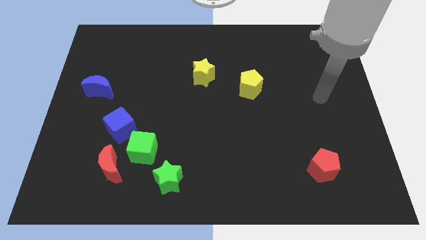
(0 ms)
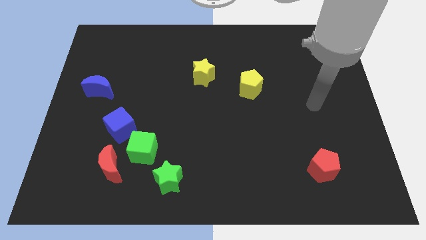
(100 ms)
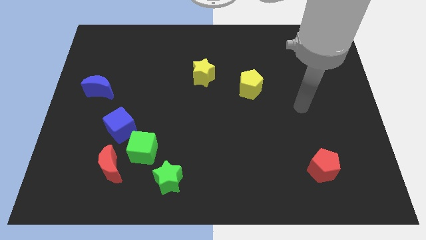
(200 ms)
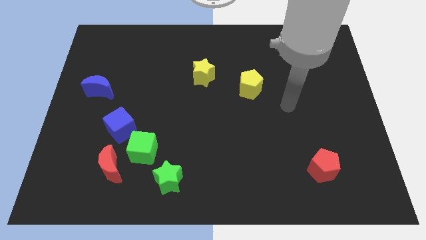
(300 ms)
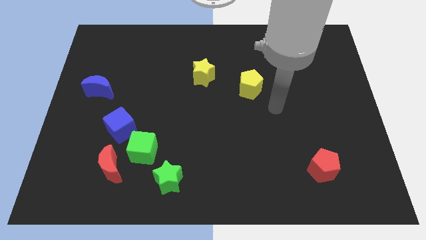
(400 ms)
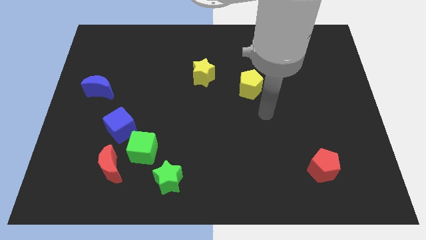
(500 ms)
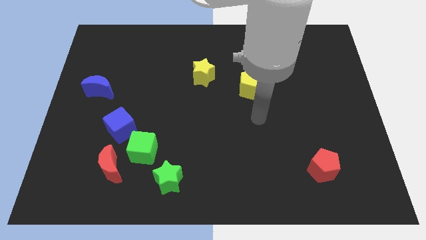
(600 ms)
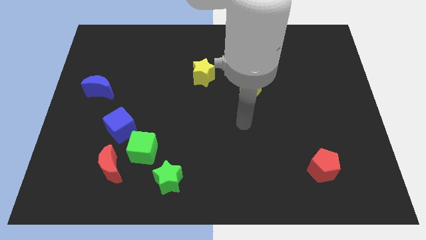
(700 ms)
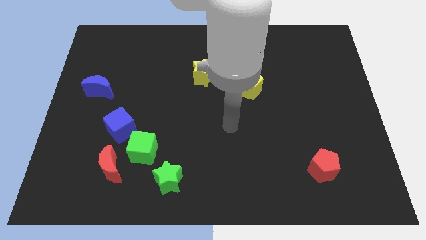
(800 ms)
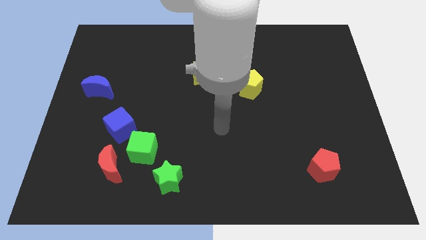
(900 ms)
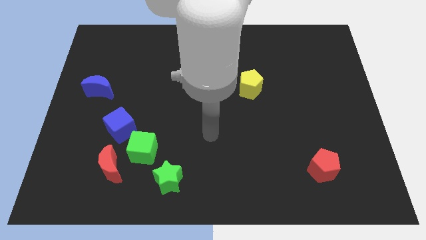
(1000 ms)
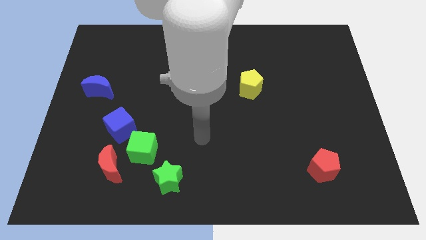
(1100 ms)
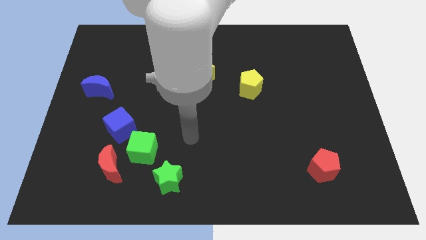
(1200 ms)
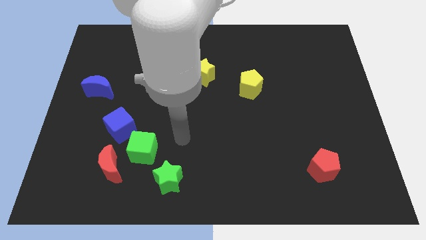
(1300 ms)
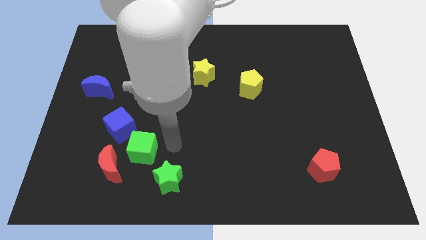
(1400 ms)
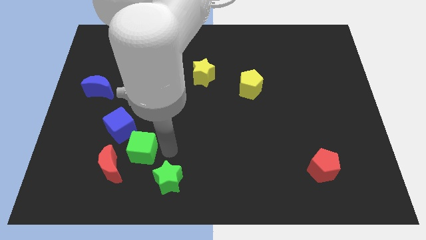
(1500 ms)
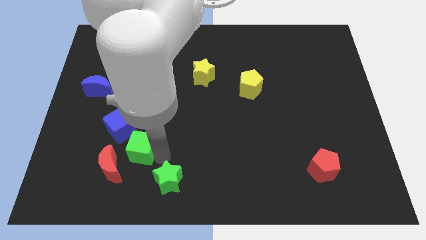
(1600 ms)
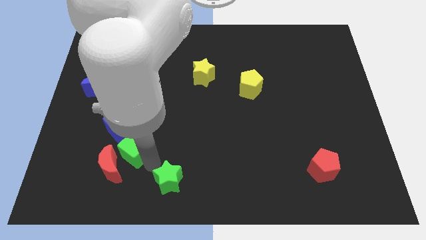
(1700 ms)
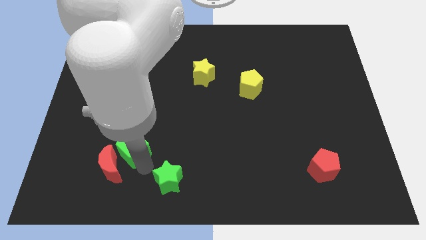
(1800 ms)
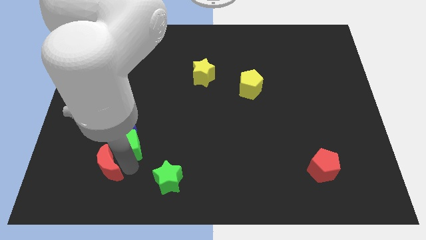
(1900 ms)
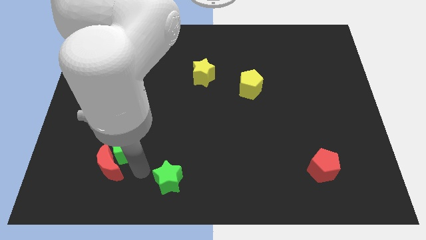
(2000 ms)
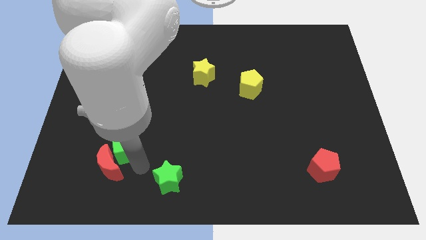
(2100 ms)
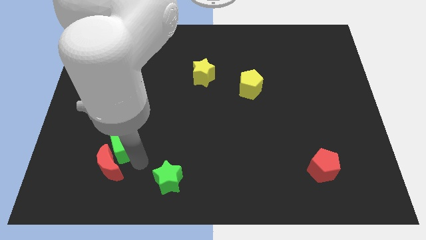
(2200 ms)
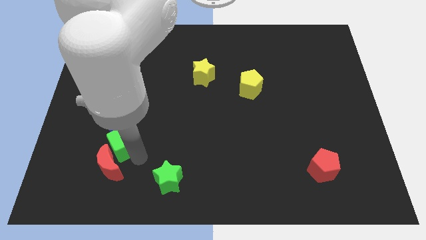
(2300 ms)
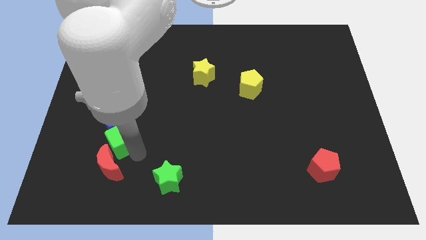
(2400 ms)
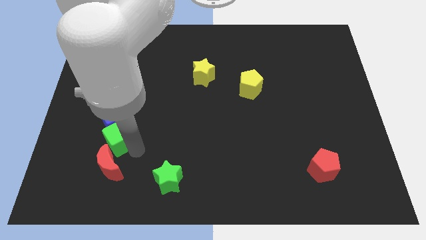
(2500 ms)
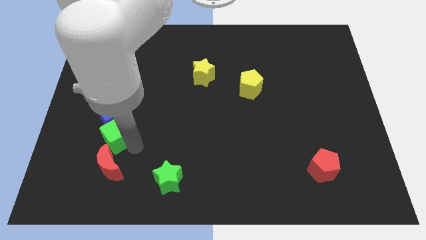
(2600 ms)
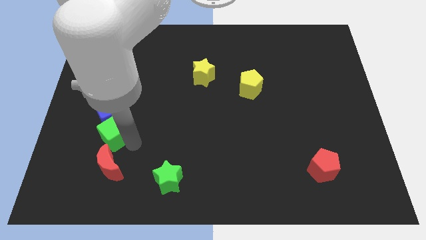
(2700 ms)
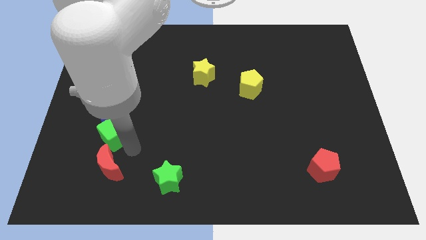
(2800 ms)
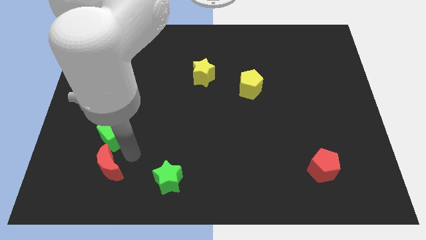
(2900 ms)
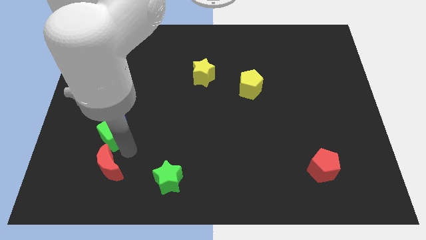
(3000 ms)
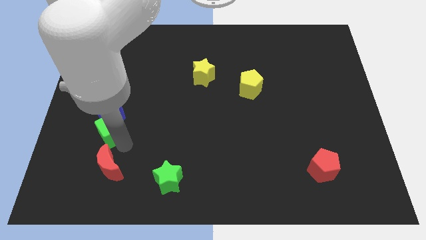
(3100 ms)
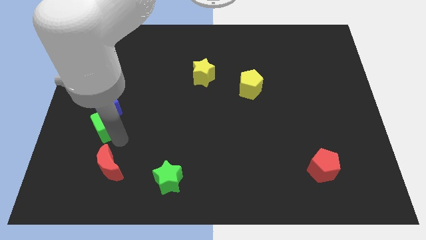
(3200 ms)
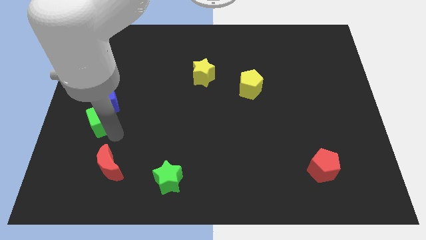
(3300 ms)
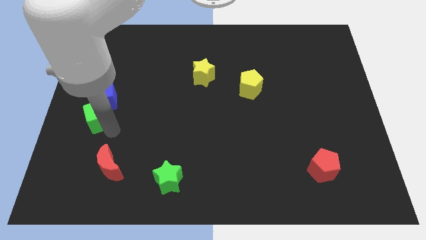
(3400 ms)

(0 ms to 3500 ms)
pull the green cube apart from the clump

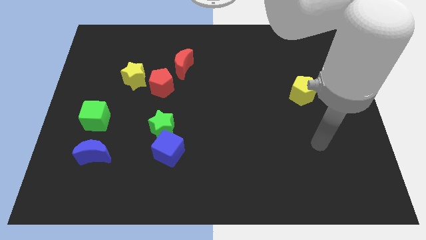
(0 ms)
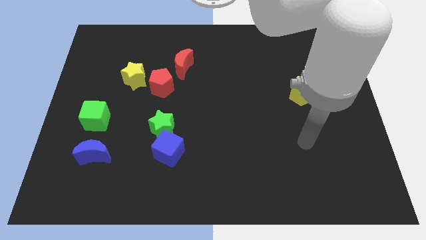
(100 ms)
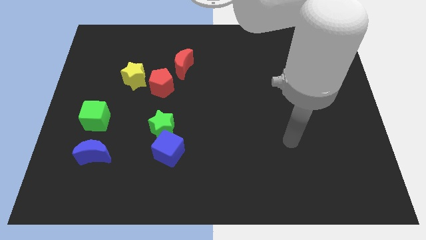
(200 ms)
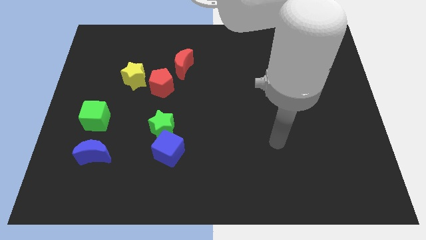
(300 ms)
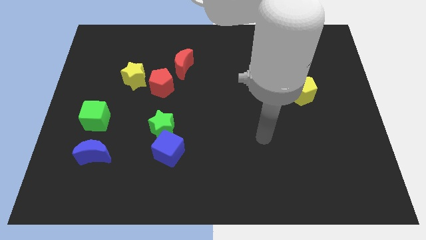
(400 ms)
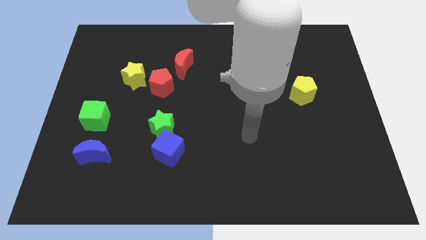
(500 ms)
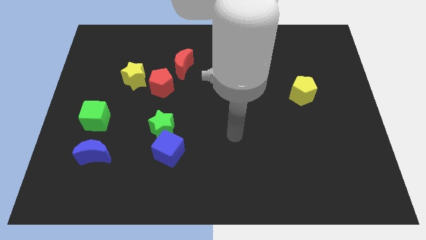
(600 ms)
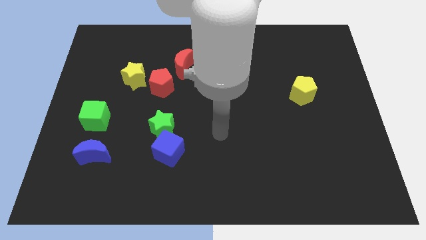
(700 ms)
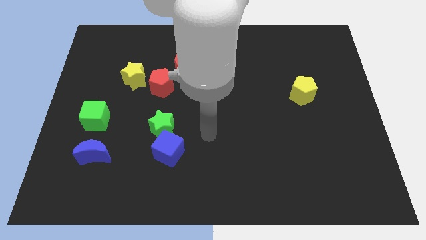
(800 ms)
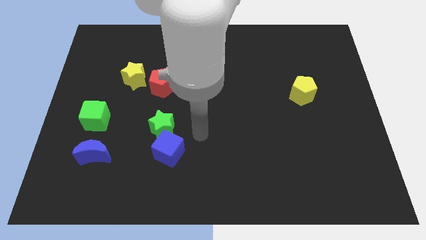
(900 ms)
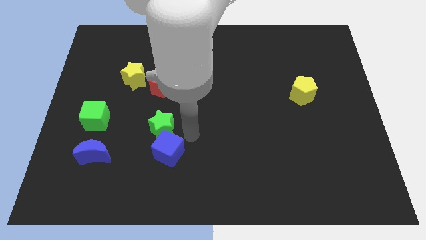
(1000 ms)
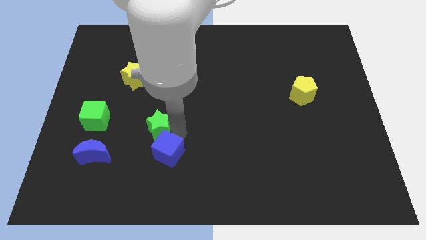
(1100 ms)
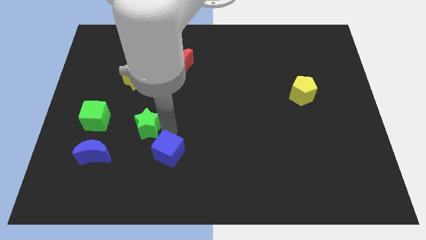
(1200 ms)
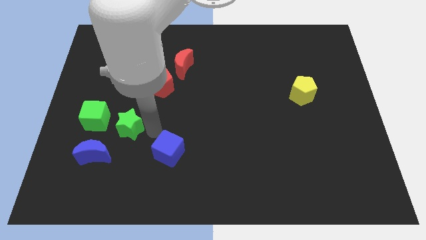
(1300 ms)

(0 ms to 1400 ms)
move the blue cube away from the green star

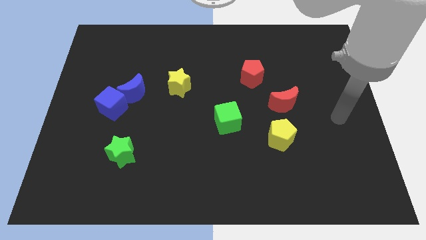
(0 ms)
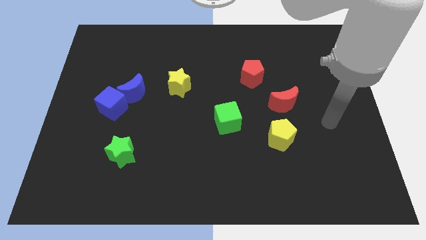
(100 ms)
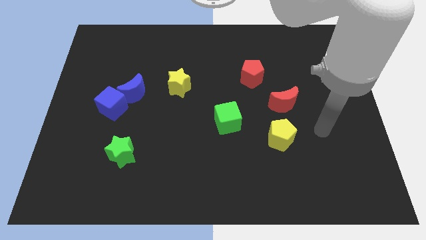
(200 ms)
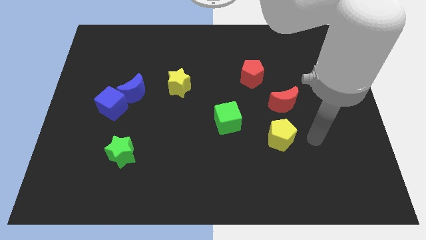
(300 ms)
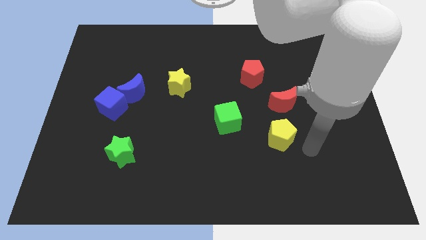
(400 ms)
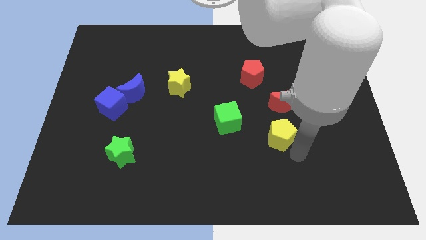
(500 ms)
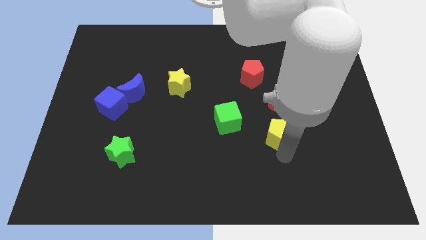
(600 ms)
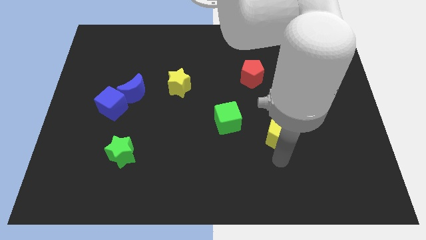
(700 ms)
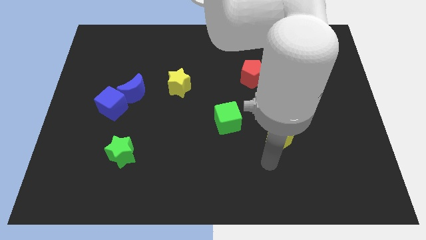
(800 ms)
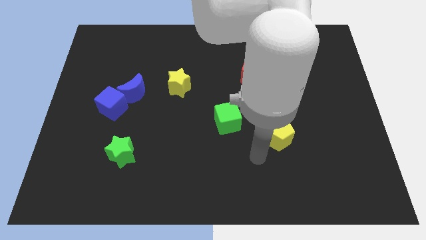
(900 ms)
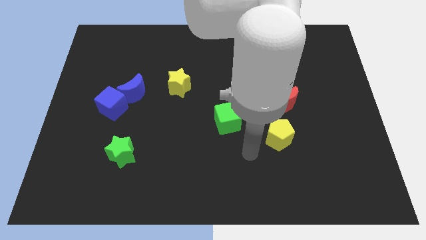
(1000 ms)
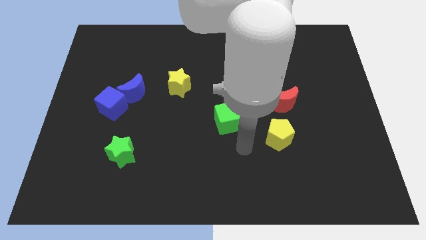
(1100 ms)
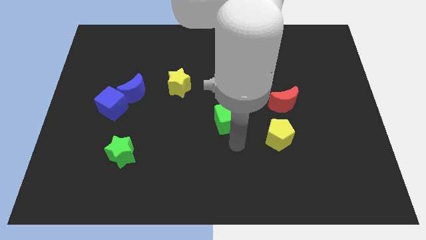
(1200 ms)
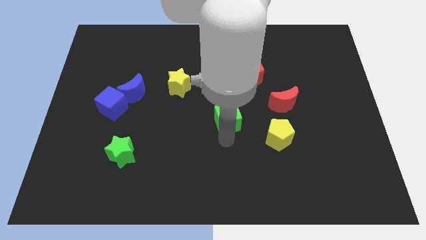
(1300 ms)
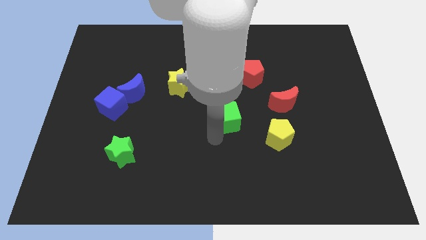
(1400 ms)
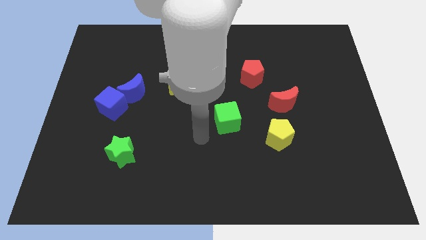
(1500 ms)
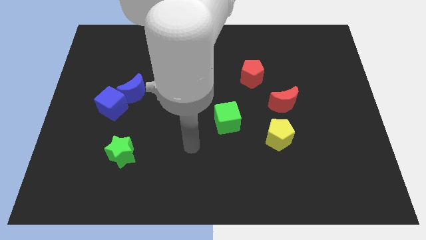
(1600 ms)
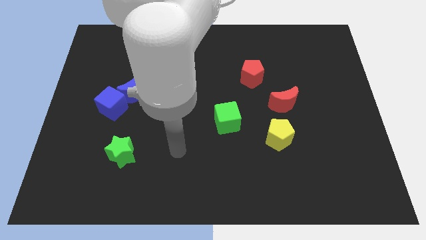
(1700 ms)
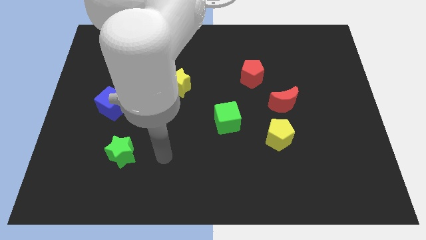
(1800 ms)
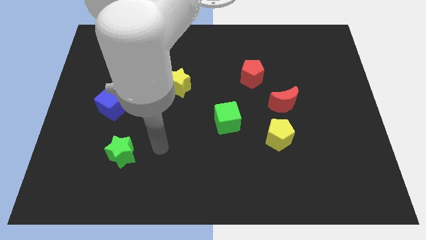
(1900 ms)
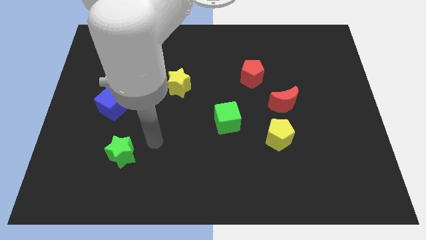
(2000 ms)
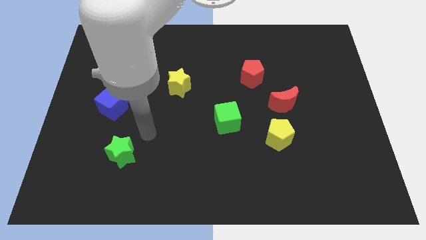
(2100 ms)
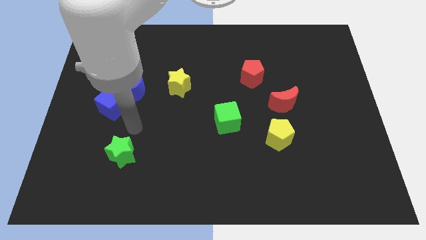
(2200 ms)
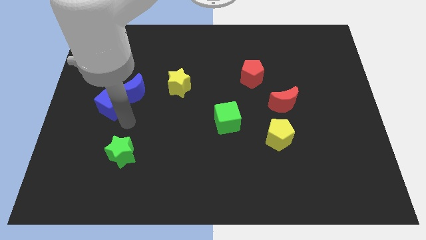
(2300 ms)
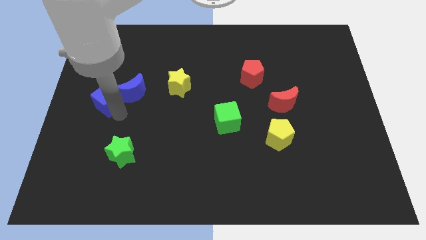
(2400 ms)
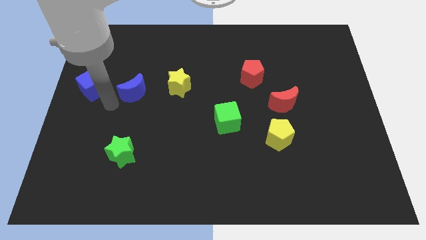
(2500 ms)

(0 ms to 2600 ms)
separate the blue moon from the blue cube

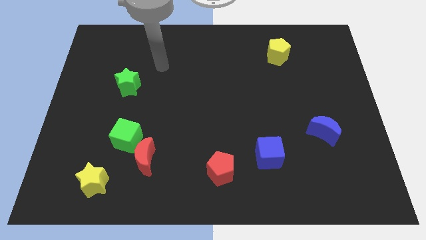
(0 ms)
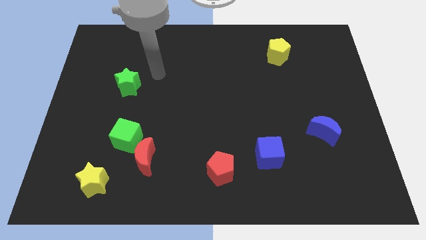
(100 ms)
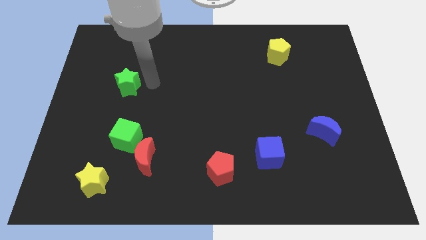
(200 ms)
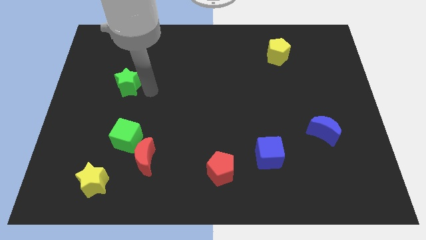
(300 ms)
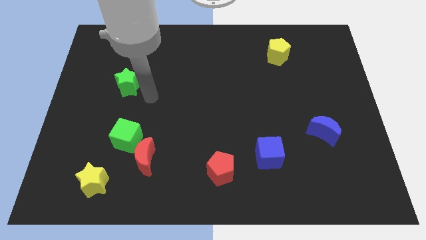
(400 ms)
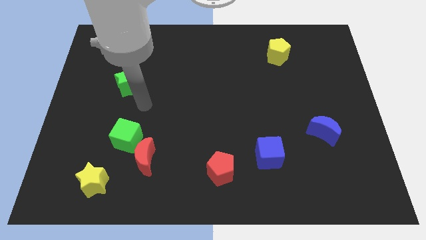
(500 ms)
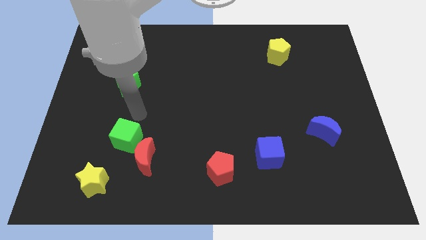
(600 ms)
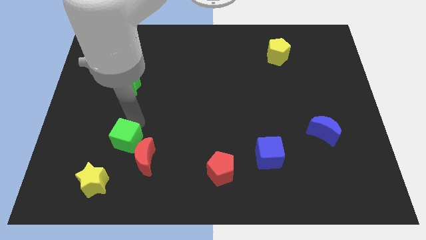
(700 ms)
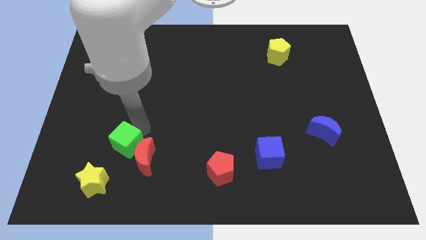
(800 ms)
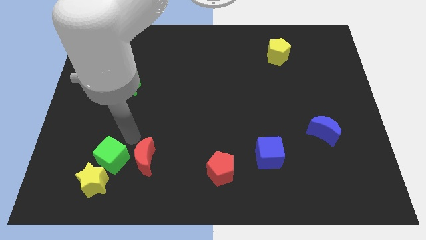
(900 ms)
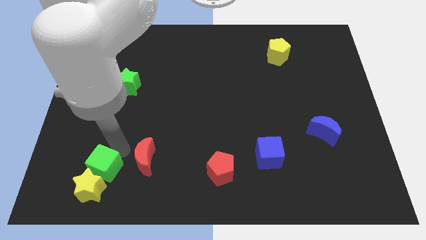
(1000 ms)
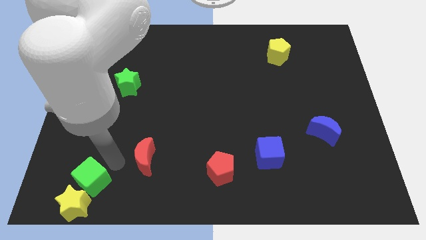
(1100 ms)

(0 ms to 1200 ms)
pull the red moon apart from the green cube

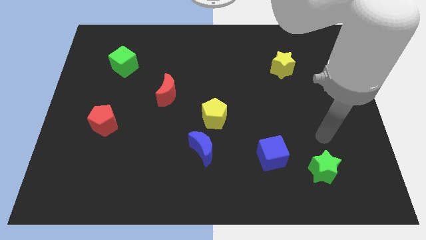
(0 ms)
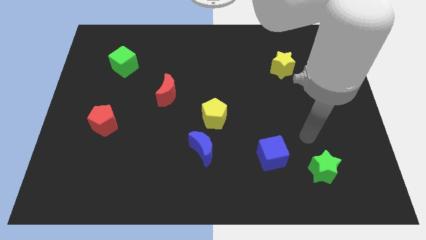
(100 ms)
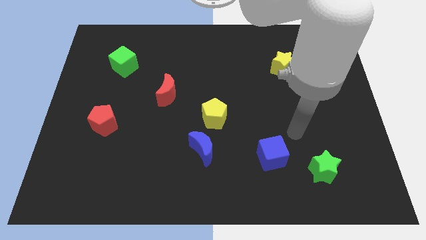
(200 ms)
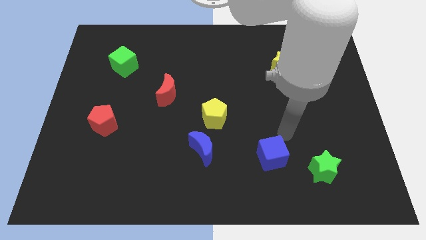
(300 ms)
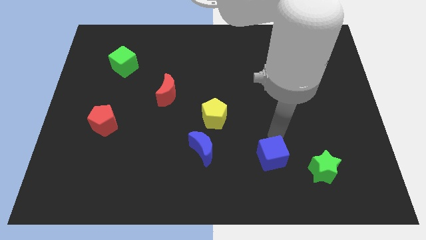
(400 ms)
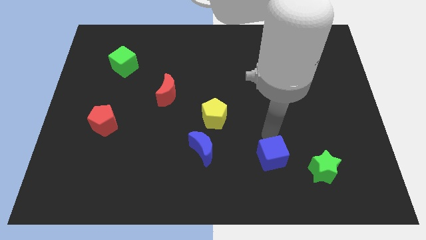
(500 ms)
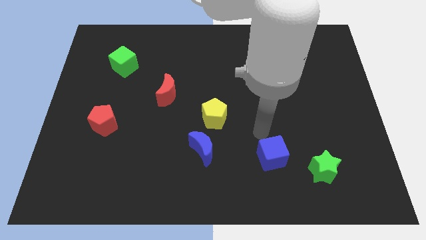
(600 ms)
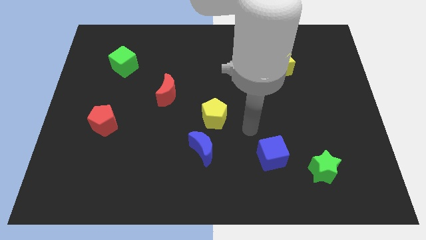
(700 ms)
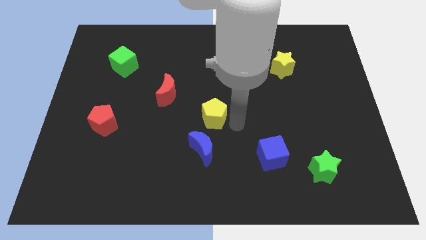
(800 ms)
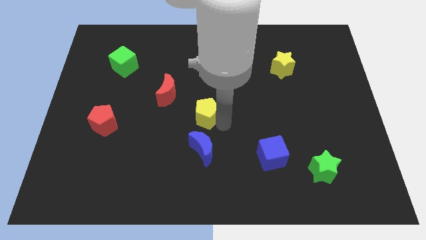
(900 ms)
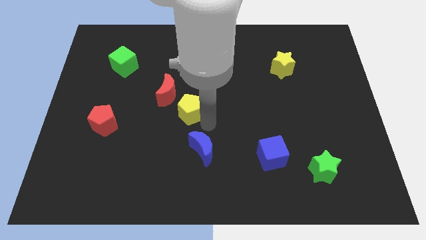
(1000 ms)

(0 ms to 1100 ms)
separate the blue moon from the yellow pentagon
